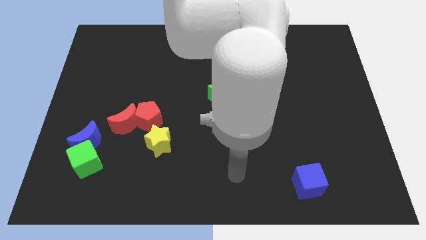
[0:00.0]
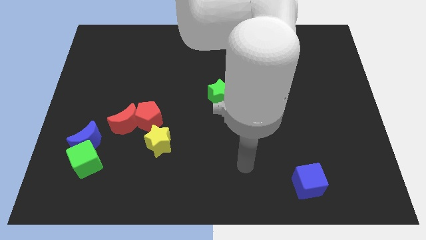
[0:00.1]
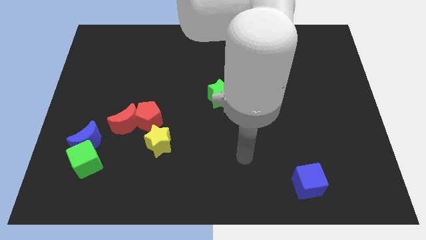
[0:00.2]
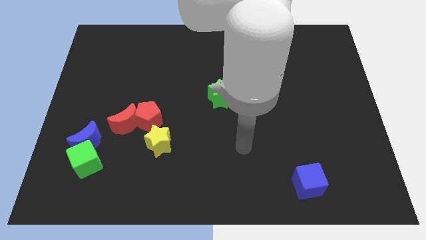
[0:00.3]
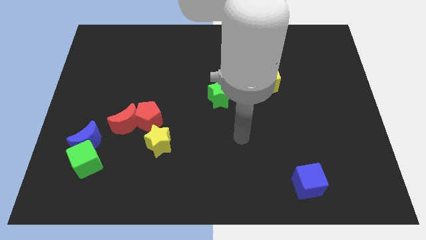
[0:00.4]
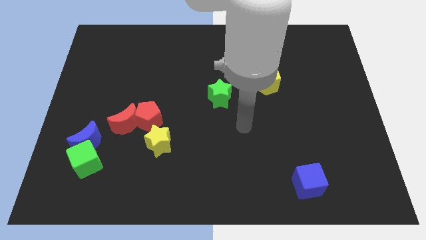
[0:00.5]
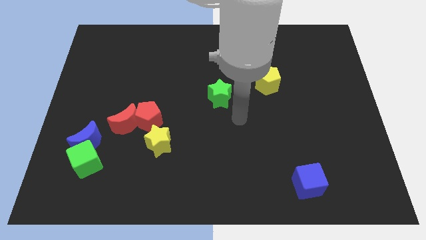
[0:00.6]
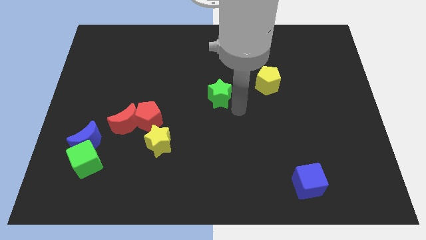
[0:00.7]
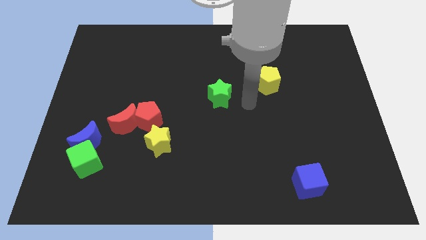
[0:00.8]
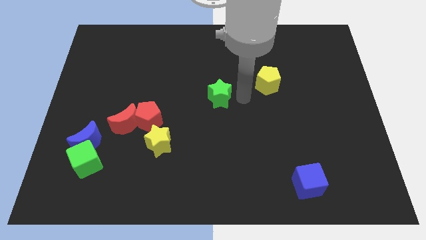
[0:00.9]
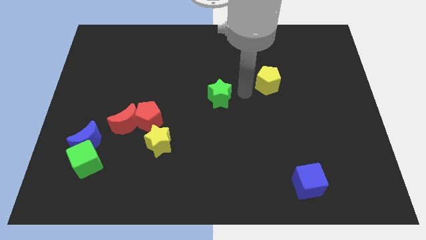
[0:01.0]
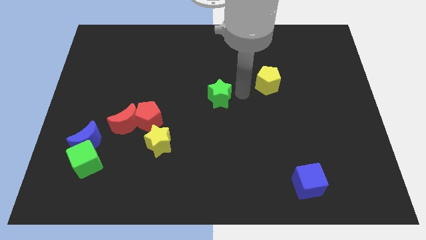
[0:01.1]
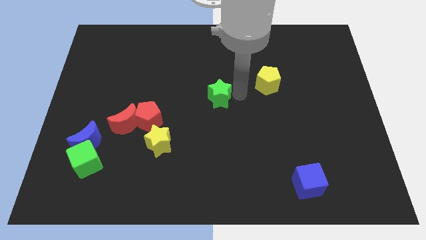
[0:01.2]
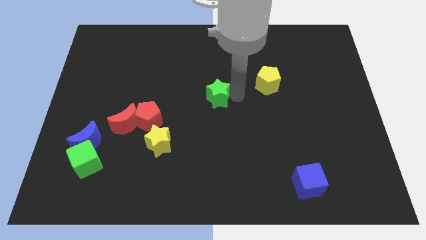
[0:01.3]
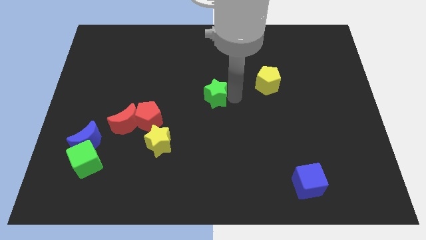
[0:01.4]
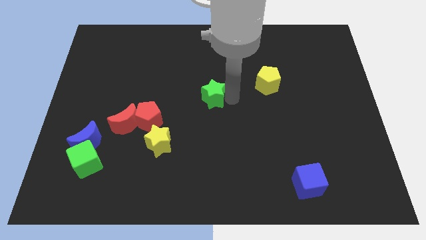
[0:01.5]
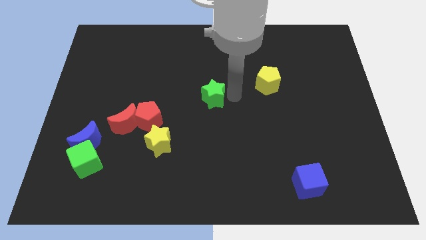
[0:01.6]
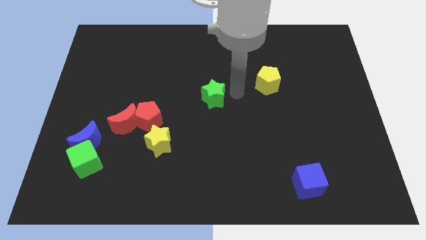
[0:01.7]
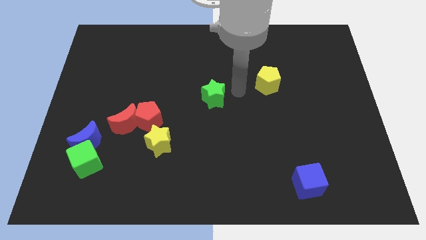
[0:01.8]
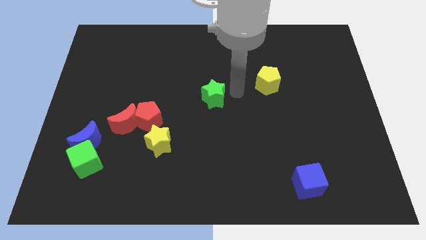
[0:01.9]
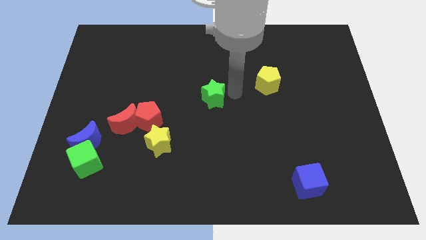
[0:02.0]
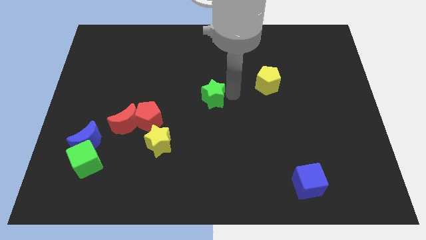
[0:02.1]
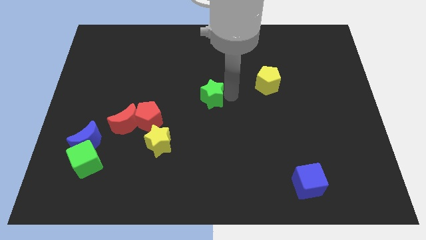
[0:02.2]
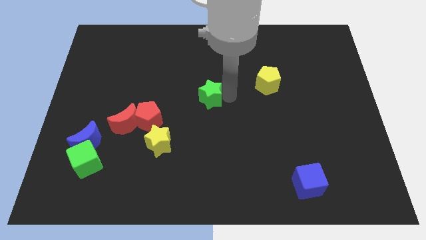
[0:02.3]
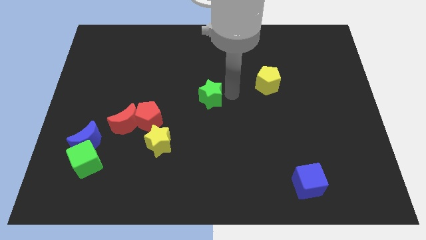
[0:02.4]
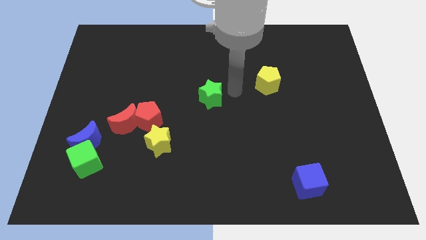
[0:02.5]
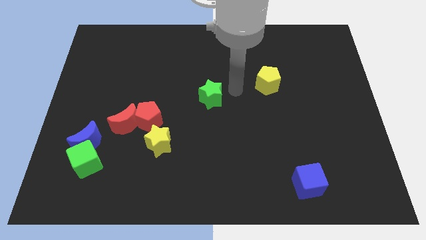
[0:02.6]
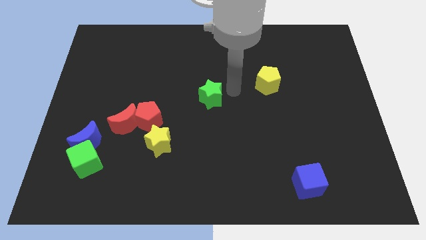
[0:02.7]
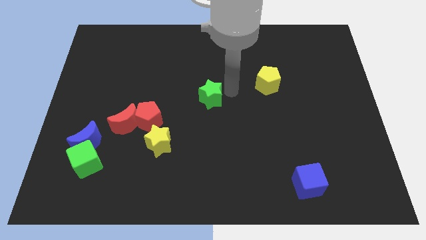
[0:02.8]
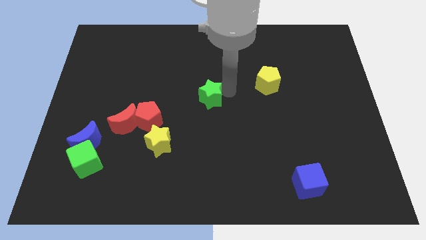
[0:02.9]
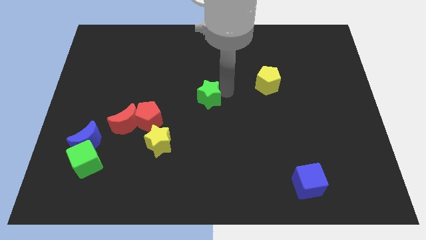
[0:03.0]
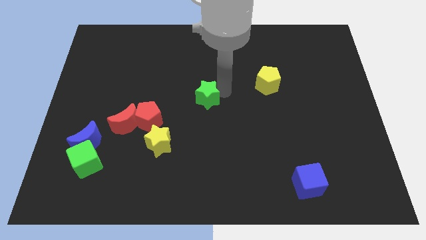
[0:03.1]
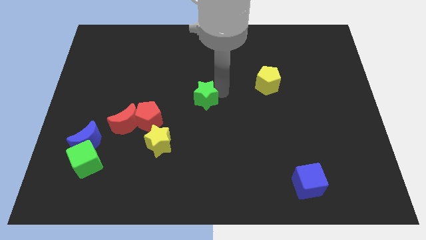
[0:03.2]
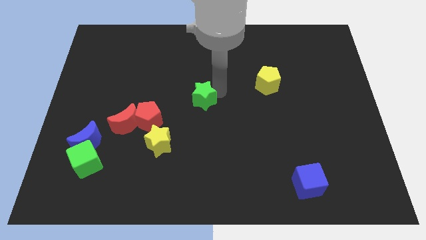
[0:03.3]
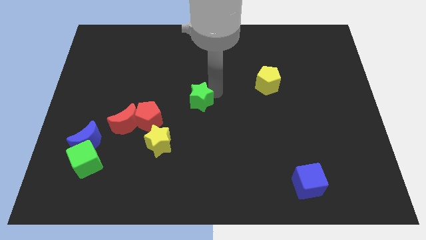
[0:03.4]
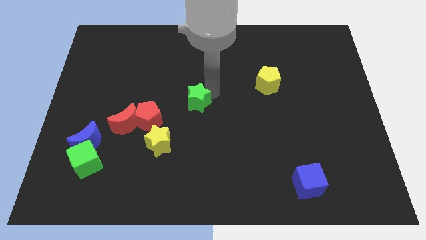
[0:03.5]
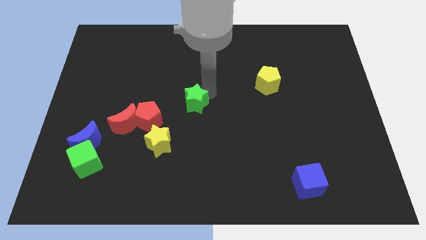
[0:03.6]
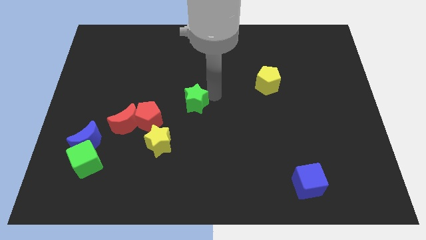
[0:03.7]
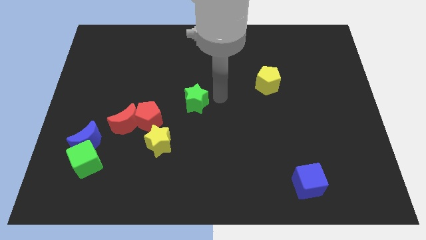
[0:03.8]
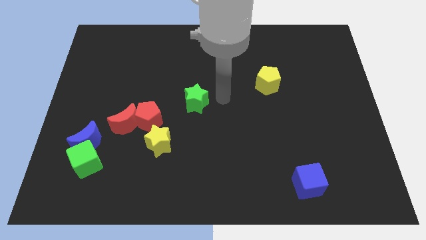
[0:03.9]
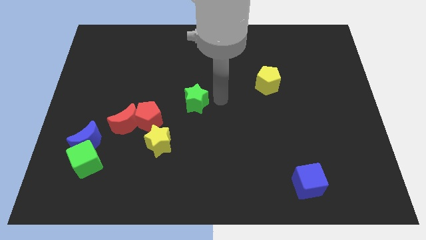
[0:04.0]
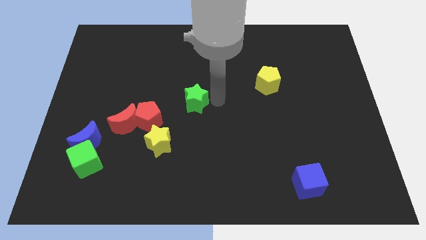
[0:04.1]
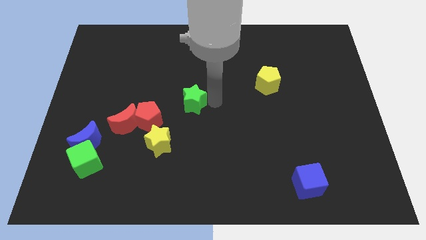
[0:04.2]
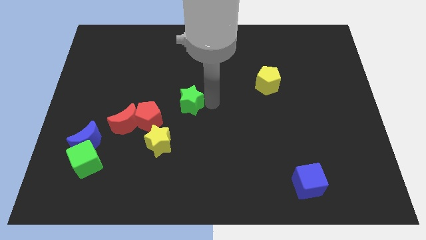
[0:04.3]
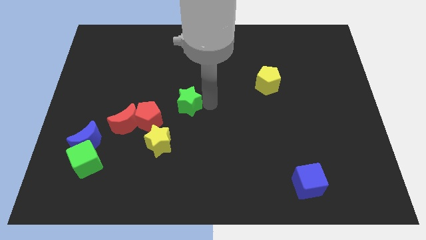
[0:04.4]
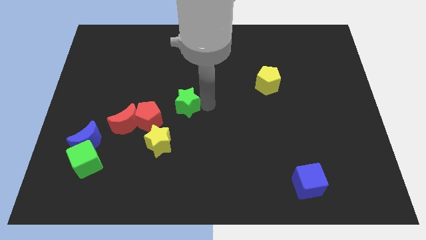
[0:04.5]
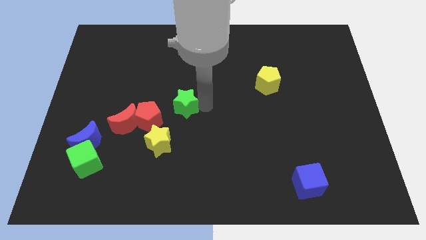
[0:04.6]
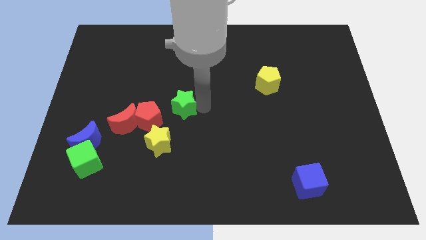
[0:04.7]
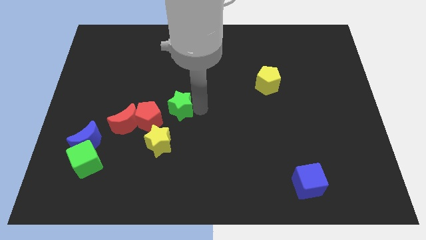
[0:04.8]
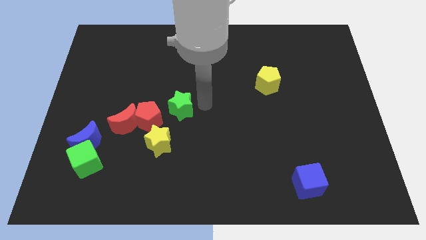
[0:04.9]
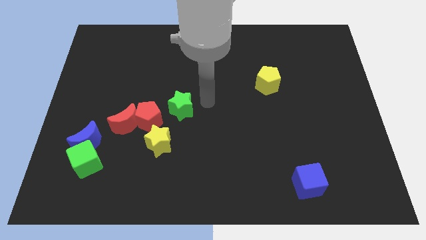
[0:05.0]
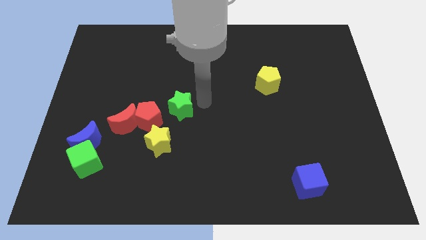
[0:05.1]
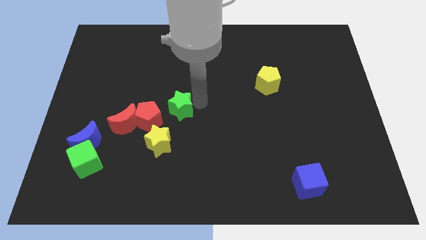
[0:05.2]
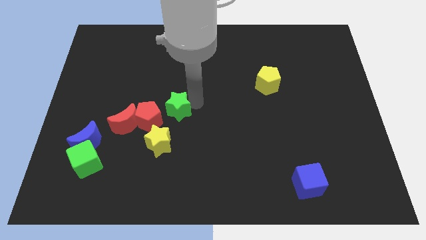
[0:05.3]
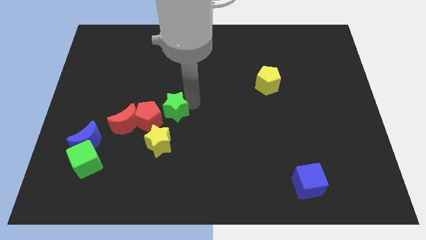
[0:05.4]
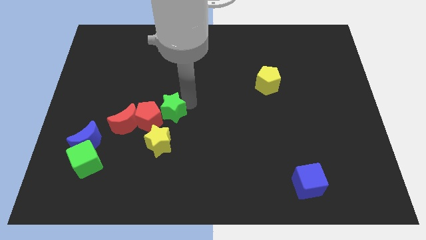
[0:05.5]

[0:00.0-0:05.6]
put the green star towards the red pentagon

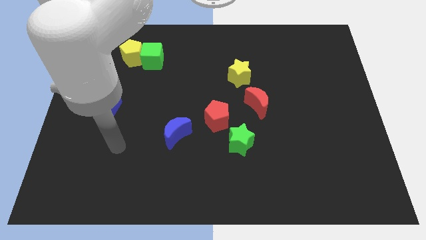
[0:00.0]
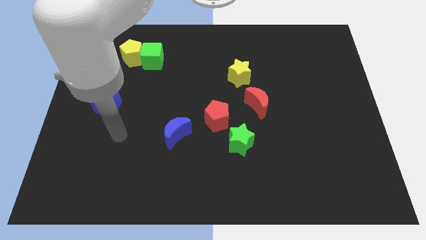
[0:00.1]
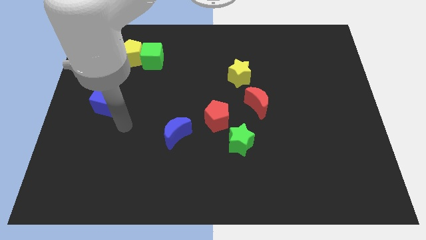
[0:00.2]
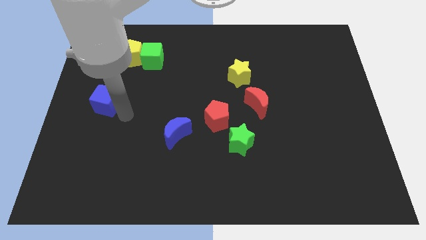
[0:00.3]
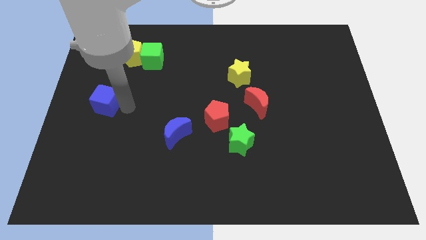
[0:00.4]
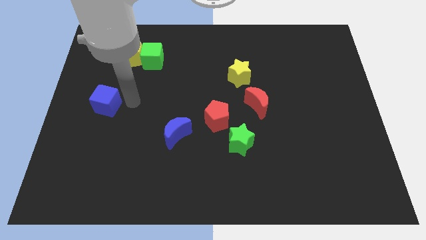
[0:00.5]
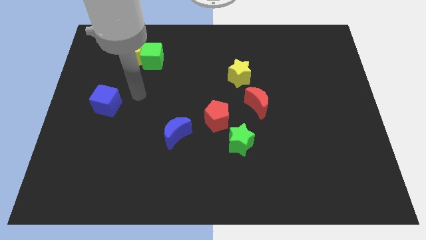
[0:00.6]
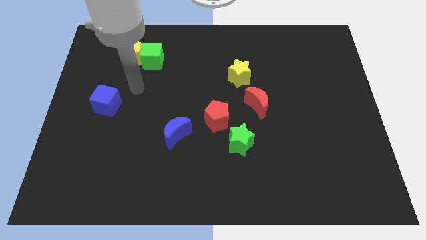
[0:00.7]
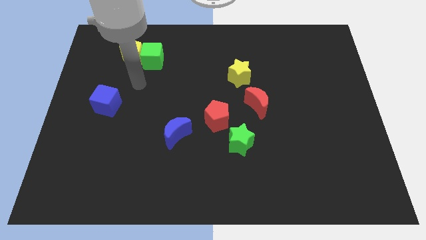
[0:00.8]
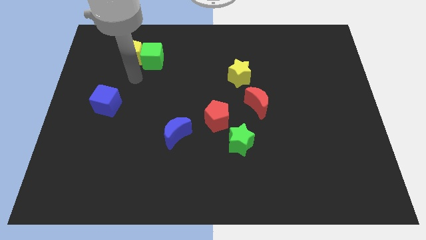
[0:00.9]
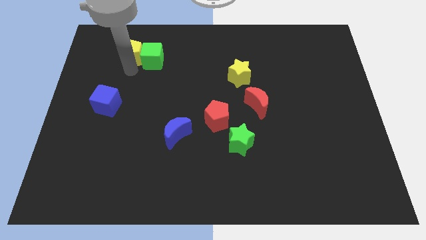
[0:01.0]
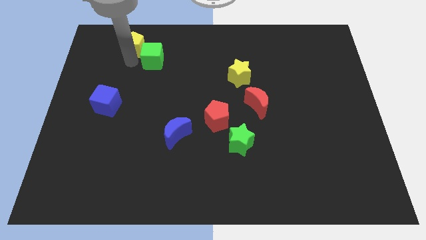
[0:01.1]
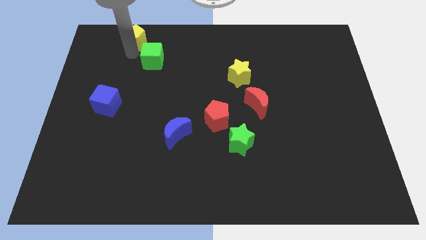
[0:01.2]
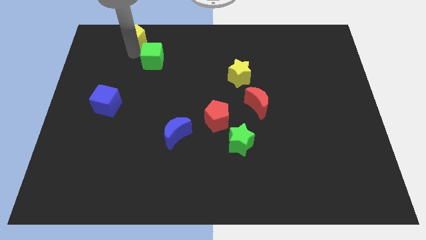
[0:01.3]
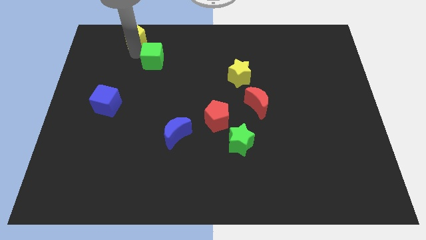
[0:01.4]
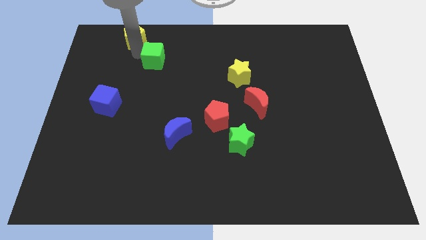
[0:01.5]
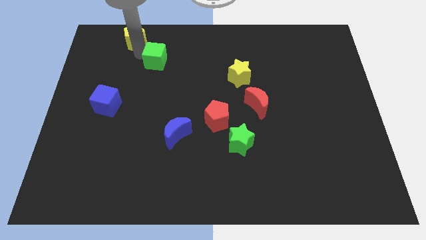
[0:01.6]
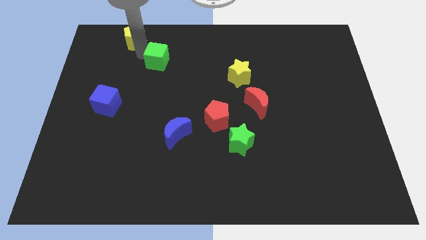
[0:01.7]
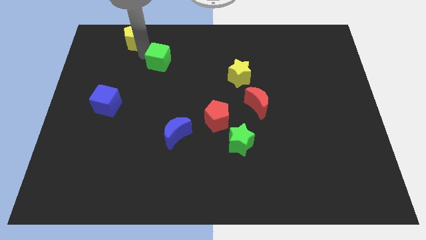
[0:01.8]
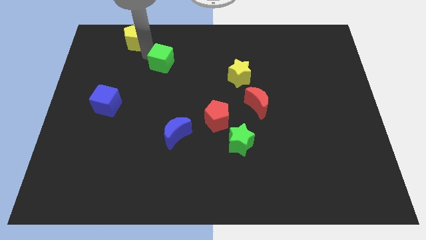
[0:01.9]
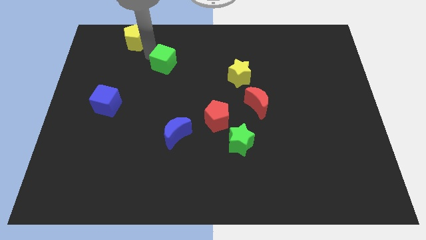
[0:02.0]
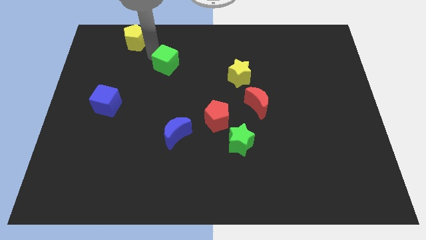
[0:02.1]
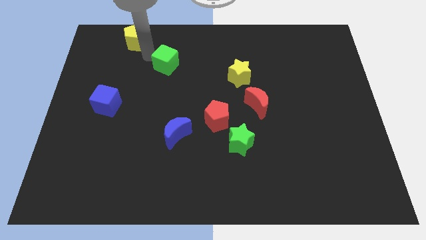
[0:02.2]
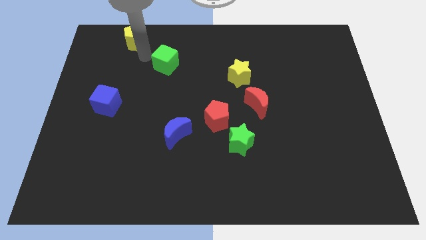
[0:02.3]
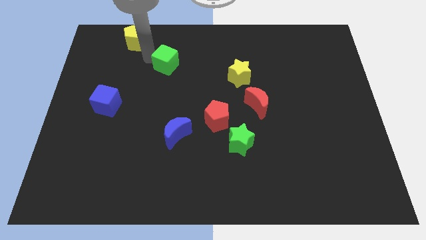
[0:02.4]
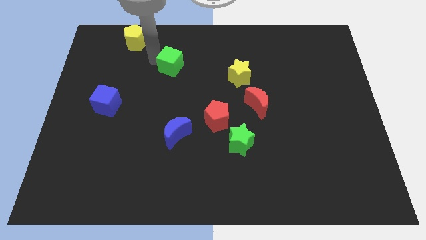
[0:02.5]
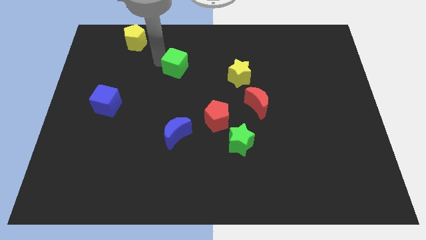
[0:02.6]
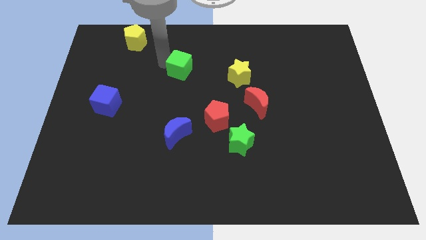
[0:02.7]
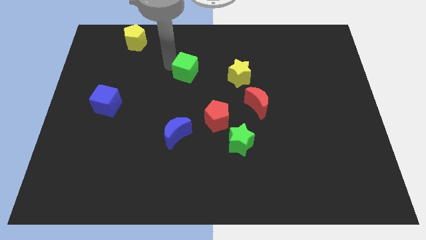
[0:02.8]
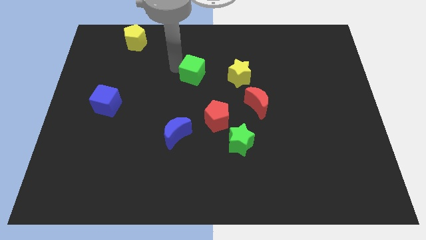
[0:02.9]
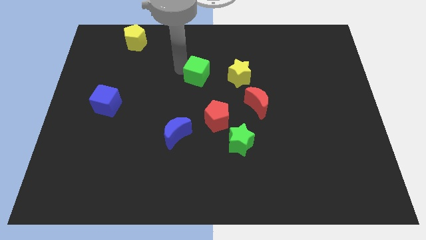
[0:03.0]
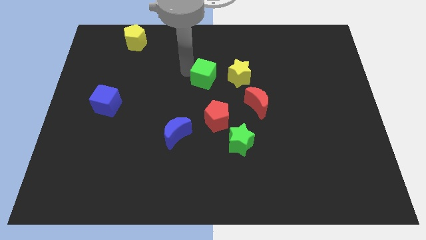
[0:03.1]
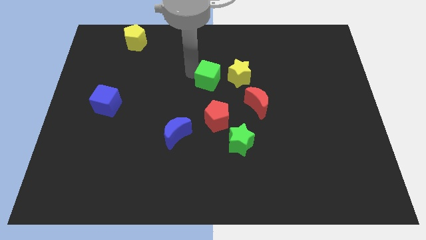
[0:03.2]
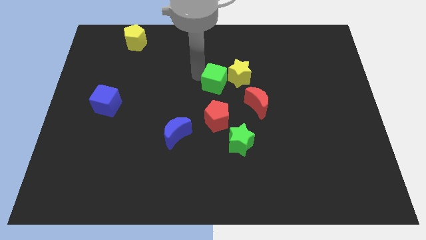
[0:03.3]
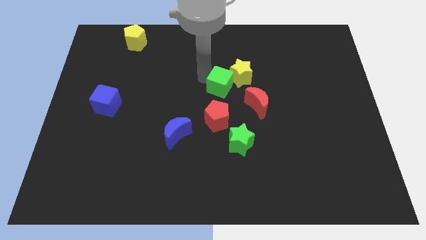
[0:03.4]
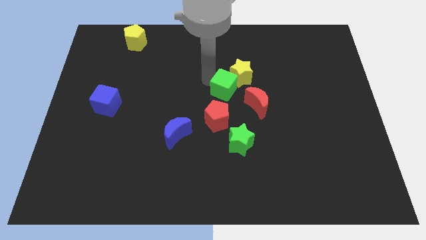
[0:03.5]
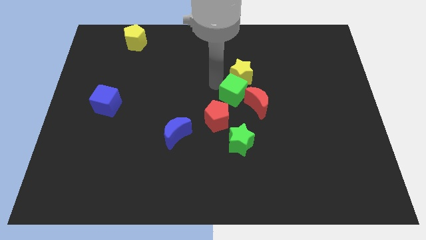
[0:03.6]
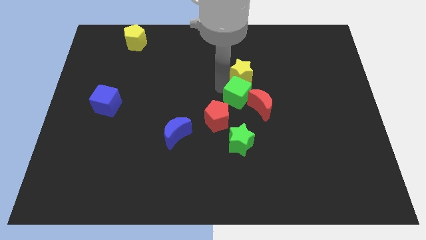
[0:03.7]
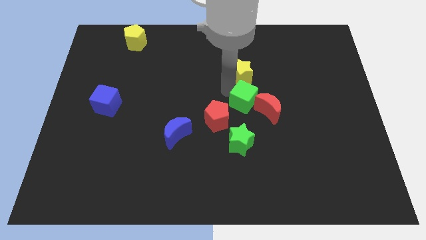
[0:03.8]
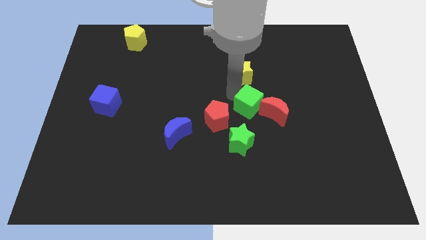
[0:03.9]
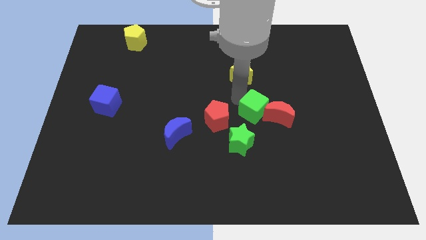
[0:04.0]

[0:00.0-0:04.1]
push the green cube next to the red moon
